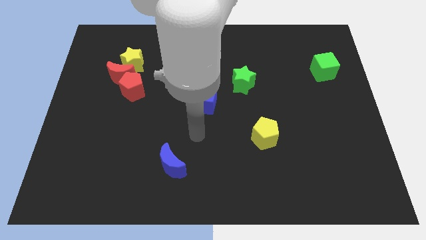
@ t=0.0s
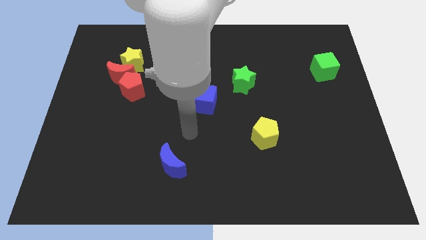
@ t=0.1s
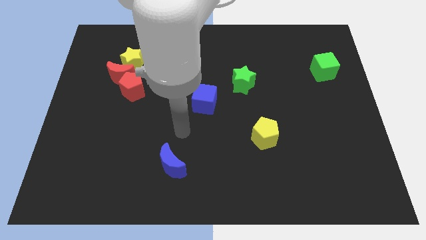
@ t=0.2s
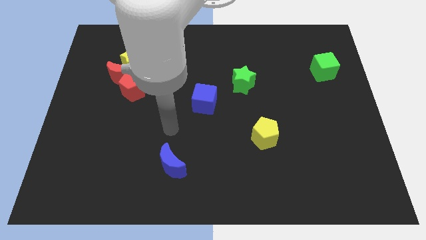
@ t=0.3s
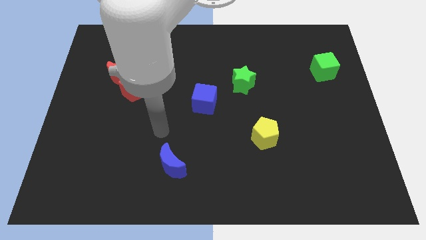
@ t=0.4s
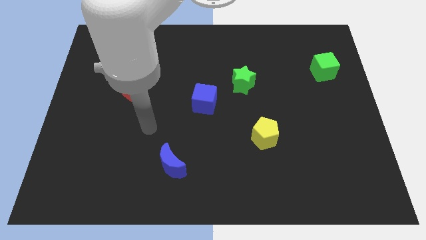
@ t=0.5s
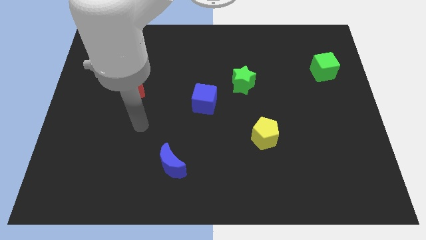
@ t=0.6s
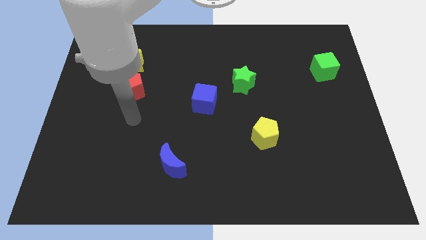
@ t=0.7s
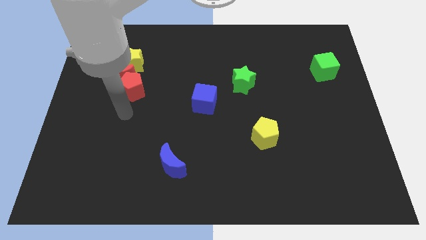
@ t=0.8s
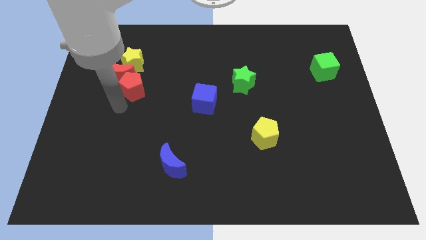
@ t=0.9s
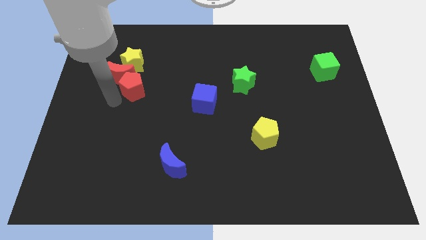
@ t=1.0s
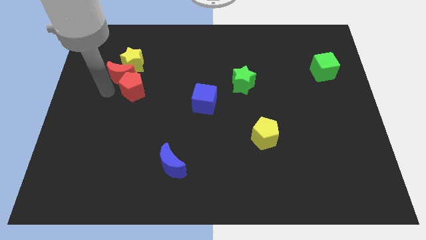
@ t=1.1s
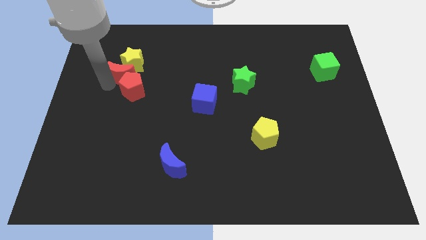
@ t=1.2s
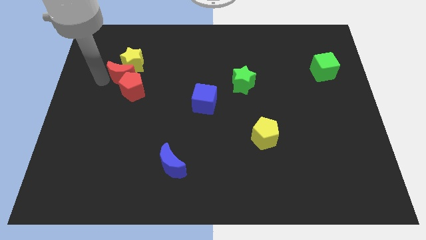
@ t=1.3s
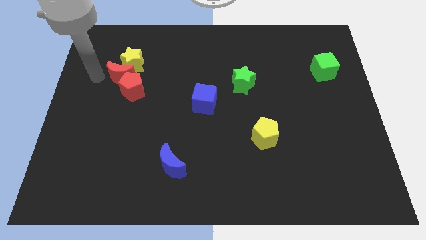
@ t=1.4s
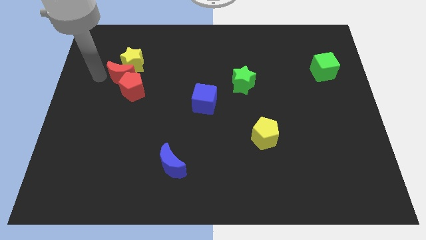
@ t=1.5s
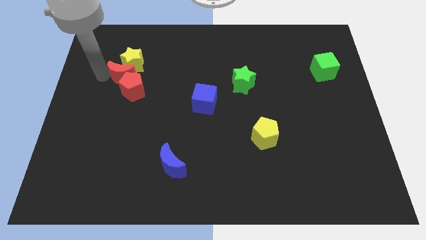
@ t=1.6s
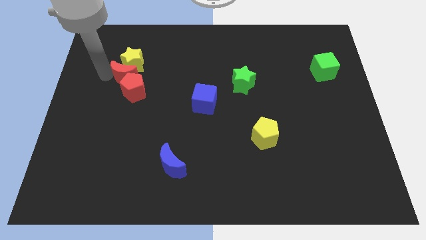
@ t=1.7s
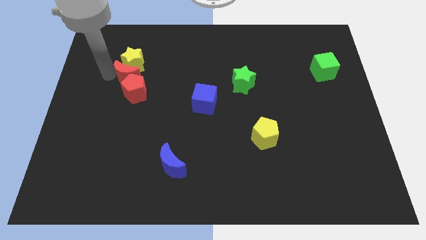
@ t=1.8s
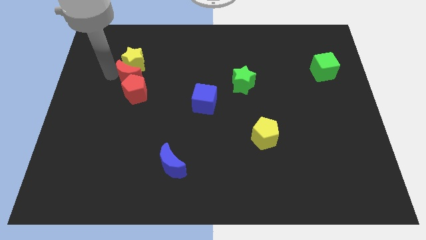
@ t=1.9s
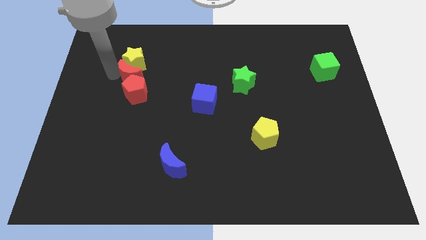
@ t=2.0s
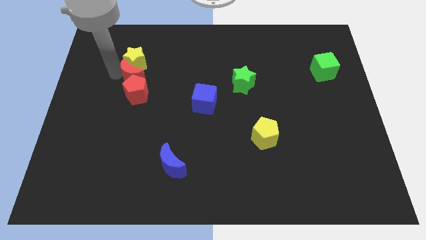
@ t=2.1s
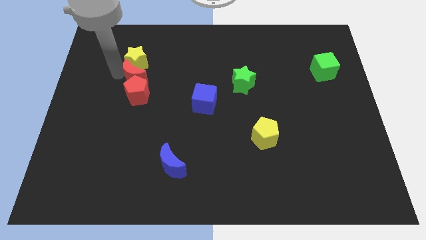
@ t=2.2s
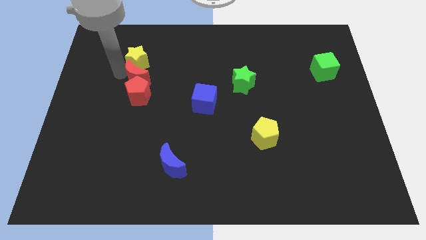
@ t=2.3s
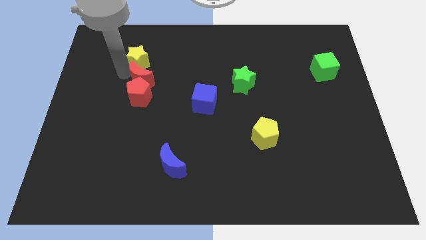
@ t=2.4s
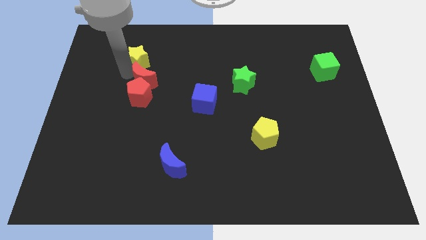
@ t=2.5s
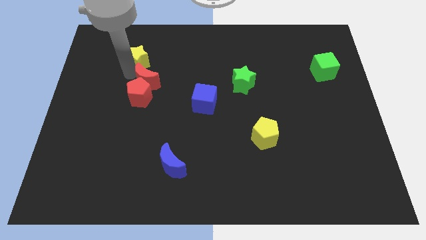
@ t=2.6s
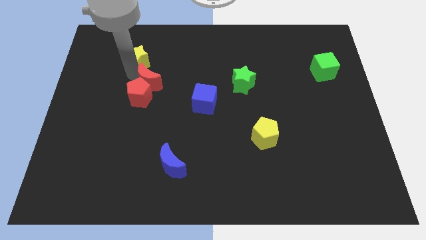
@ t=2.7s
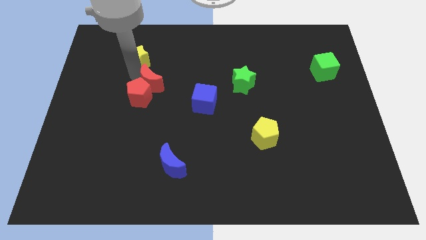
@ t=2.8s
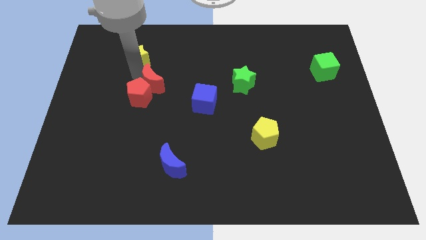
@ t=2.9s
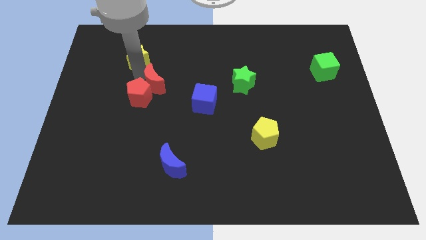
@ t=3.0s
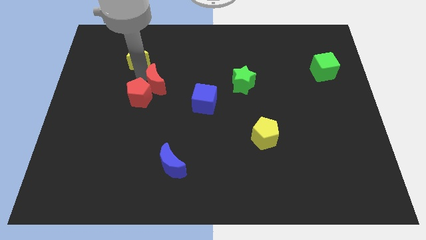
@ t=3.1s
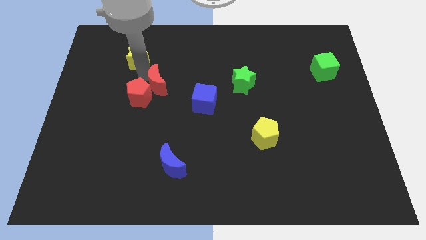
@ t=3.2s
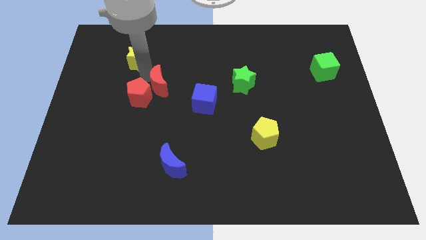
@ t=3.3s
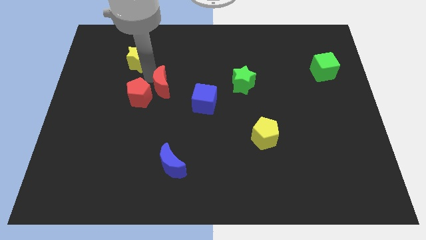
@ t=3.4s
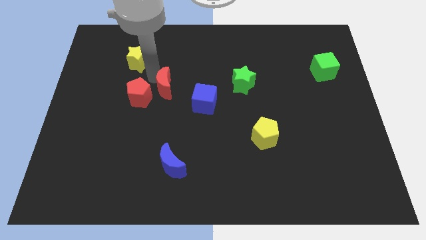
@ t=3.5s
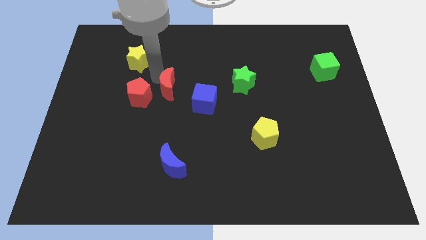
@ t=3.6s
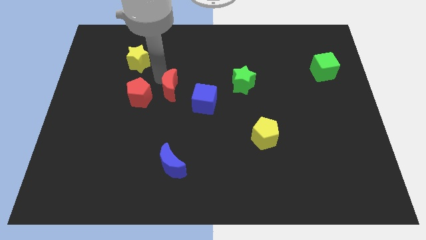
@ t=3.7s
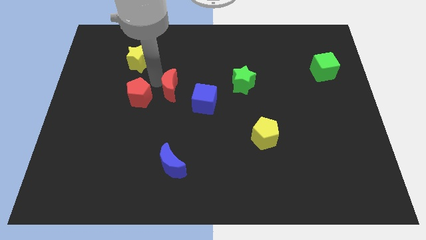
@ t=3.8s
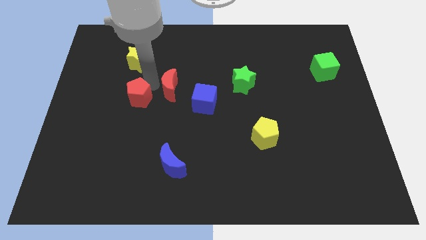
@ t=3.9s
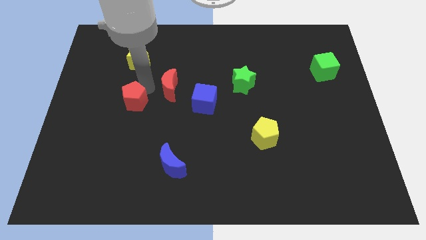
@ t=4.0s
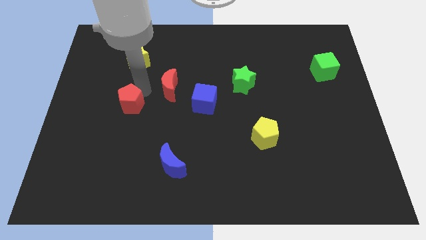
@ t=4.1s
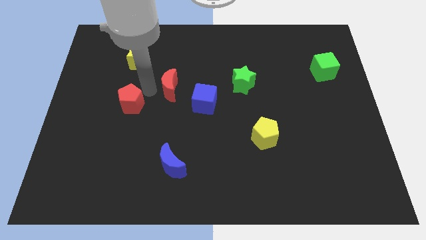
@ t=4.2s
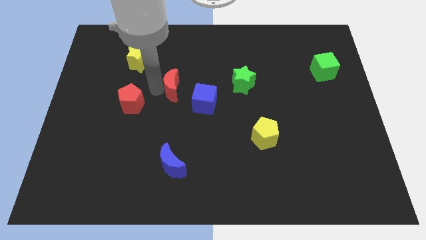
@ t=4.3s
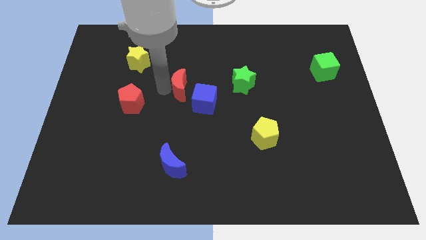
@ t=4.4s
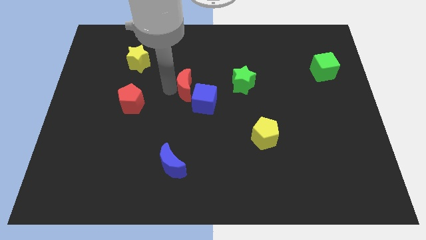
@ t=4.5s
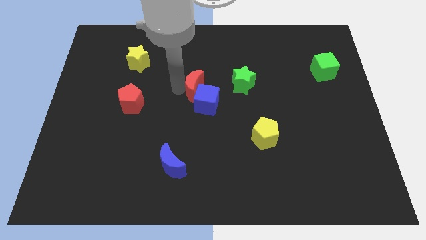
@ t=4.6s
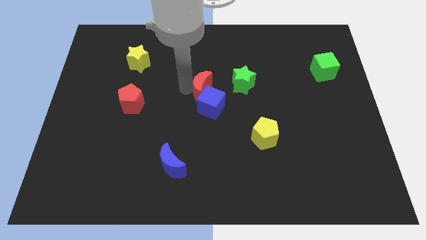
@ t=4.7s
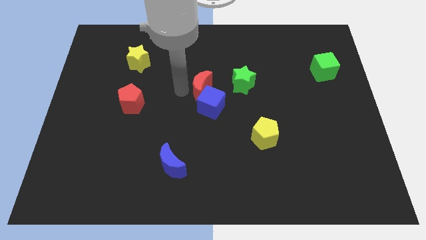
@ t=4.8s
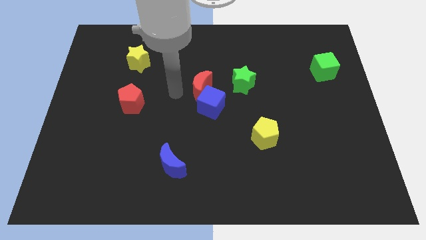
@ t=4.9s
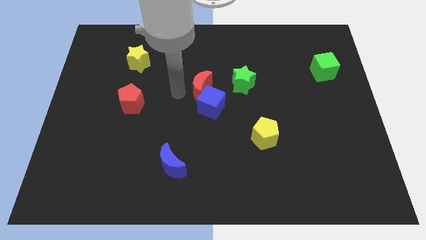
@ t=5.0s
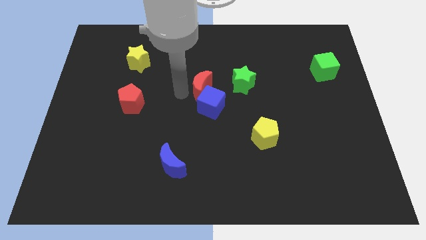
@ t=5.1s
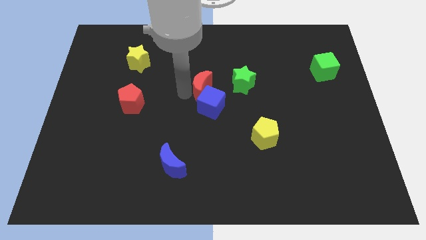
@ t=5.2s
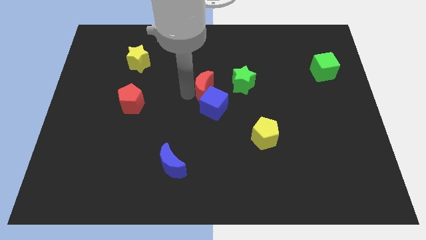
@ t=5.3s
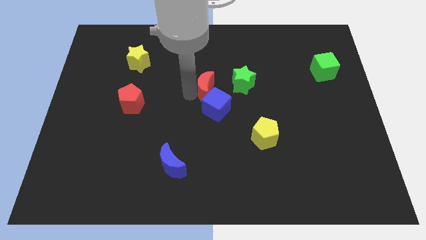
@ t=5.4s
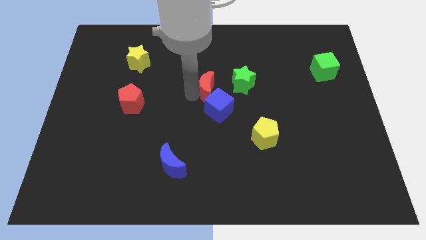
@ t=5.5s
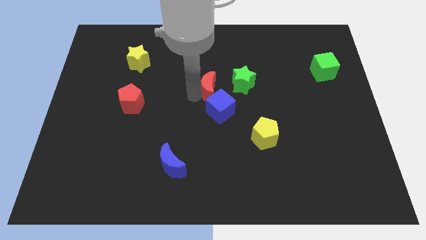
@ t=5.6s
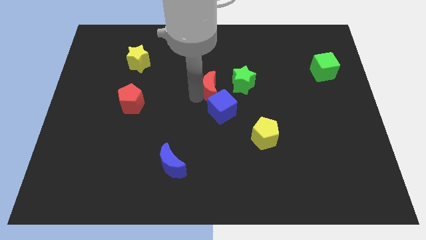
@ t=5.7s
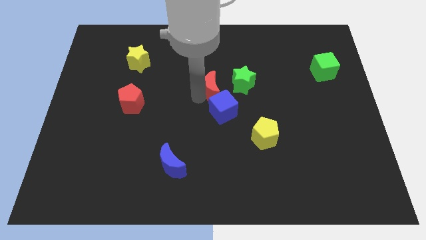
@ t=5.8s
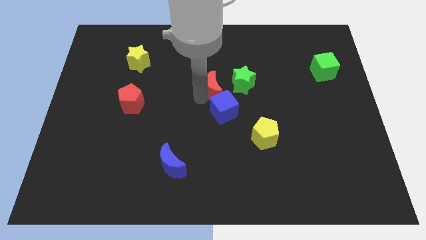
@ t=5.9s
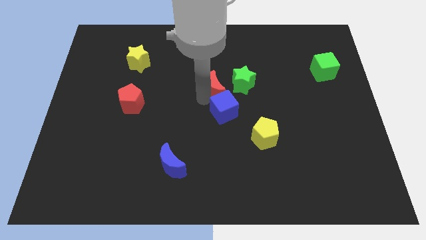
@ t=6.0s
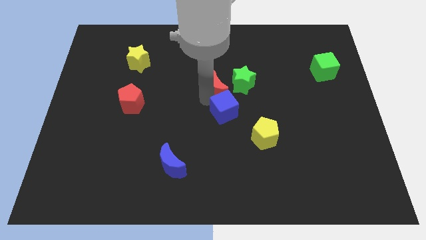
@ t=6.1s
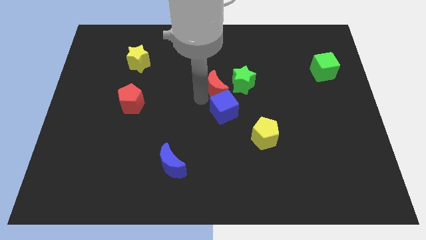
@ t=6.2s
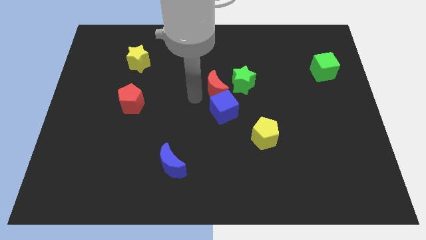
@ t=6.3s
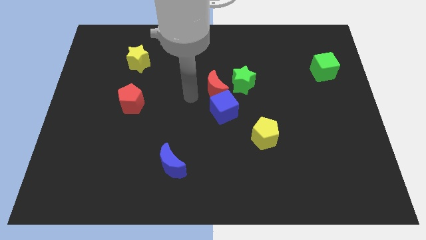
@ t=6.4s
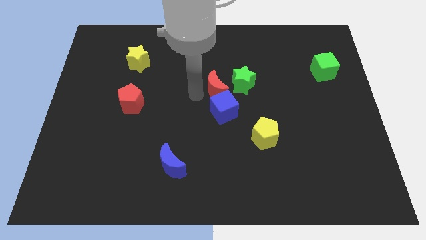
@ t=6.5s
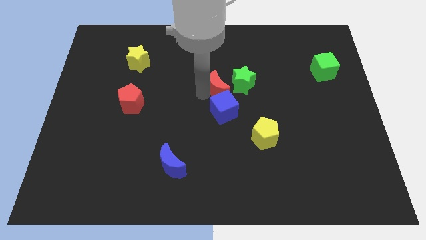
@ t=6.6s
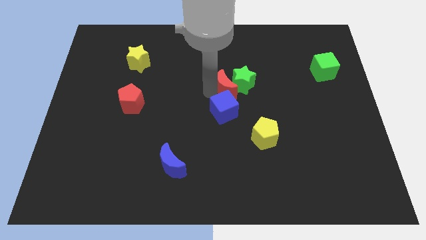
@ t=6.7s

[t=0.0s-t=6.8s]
push the red moon to the green star
